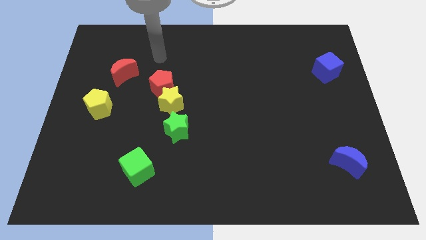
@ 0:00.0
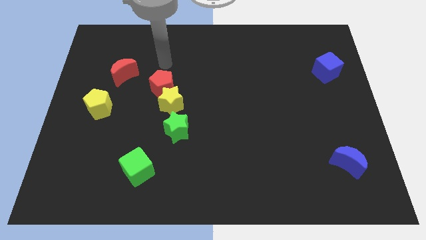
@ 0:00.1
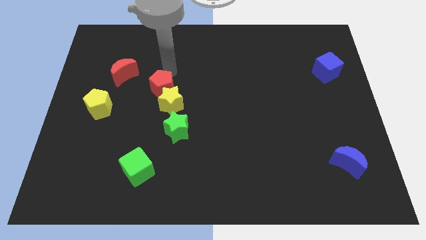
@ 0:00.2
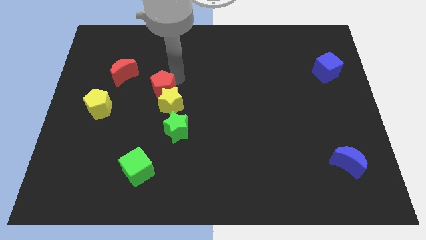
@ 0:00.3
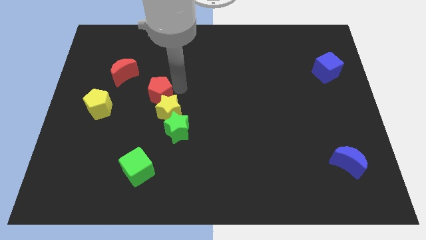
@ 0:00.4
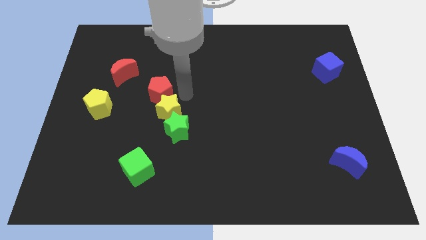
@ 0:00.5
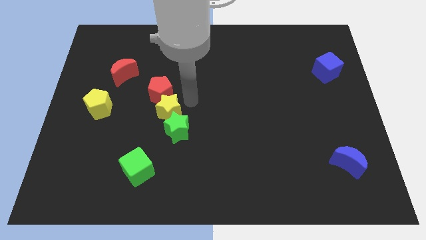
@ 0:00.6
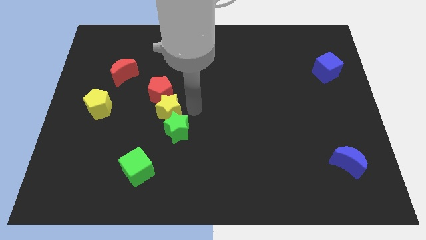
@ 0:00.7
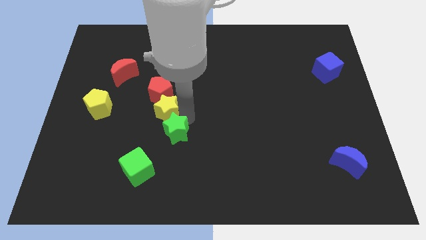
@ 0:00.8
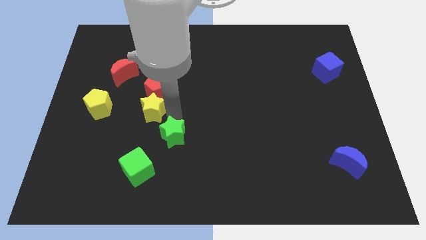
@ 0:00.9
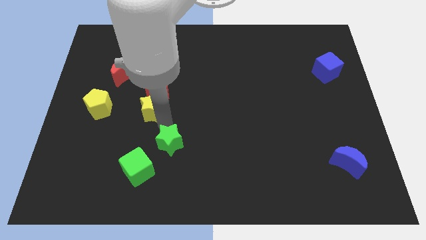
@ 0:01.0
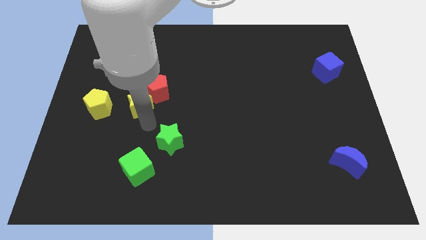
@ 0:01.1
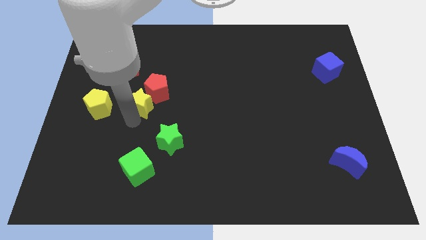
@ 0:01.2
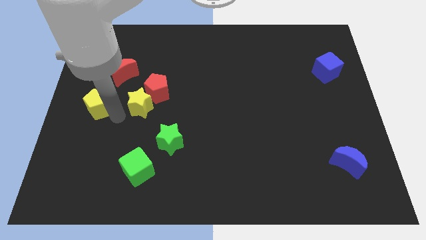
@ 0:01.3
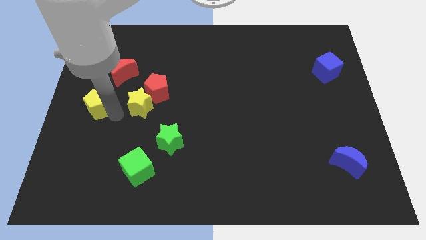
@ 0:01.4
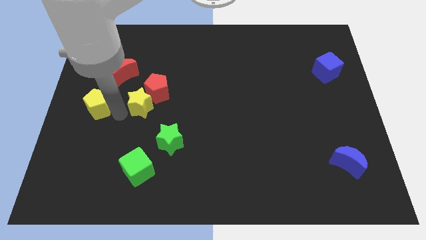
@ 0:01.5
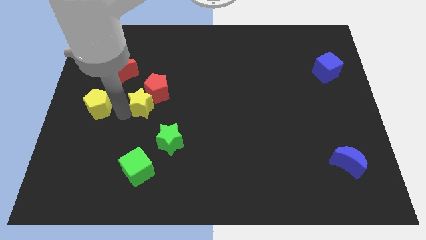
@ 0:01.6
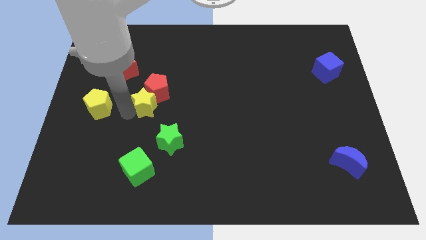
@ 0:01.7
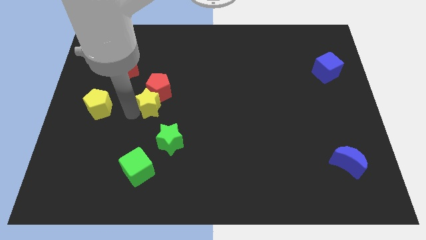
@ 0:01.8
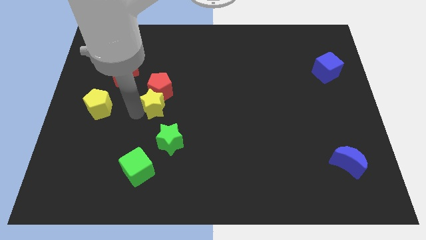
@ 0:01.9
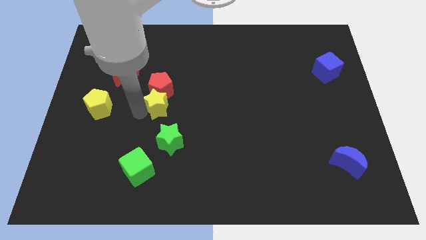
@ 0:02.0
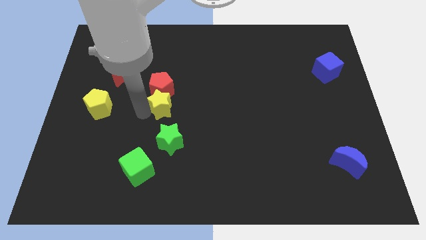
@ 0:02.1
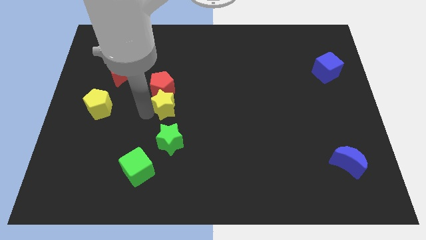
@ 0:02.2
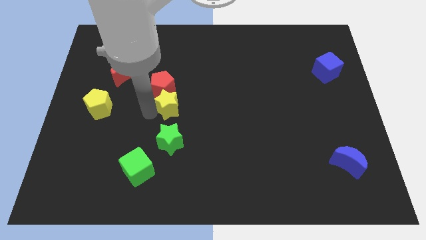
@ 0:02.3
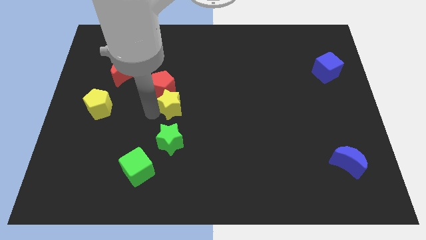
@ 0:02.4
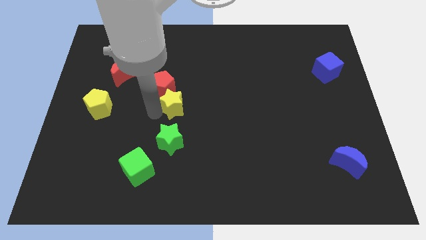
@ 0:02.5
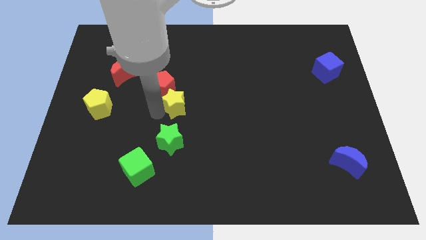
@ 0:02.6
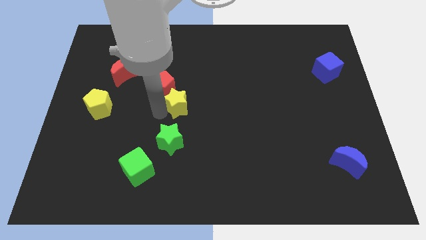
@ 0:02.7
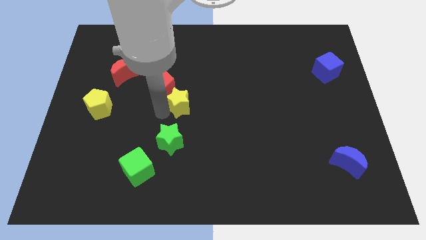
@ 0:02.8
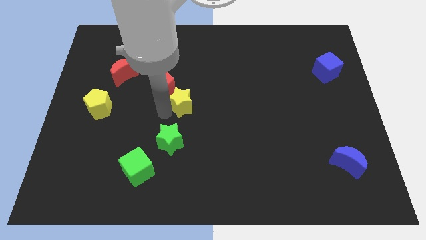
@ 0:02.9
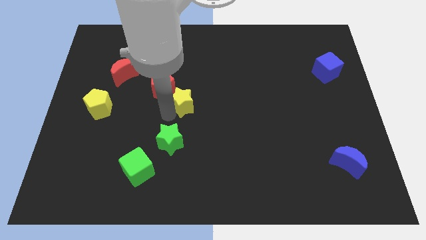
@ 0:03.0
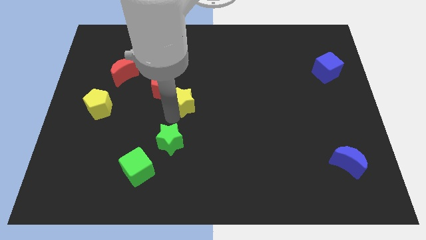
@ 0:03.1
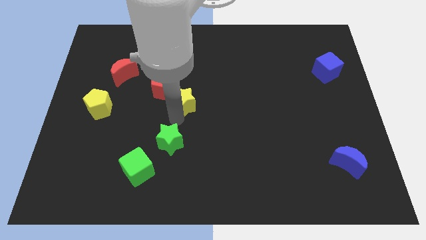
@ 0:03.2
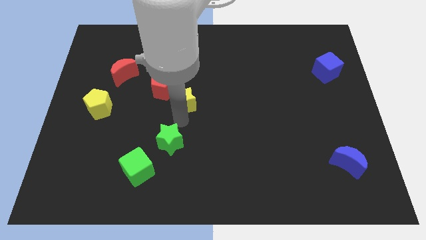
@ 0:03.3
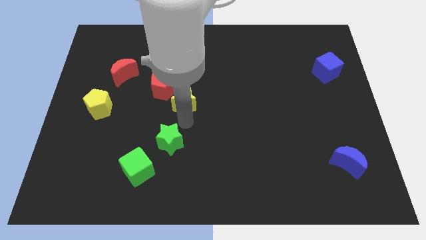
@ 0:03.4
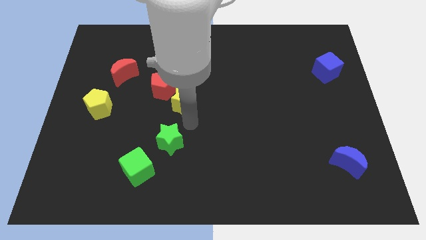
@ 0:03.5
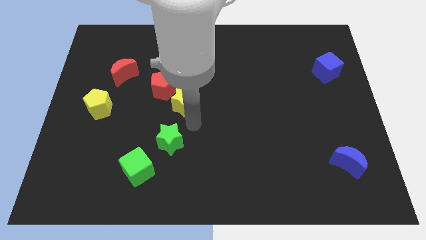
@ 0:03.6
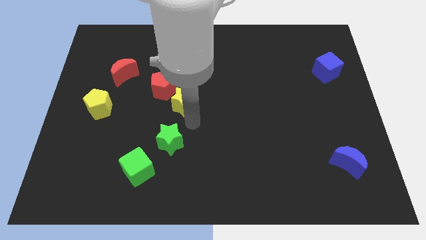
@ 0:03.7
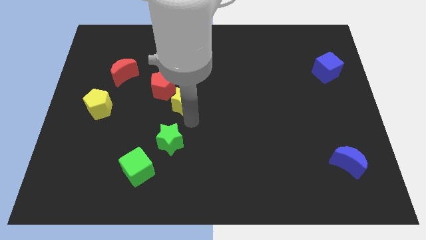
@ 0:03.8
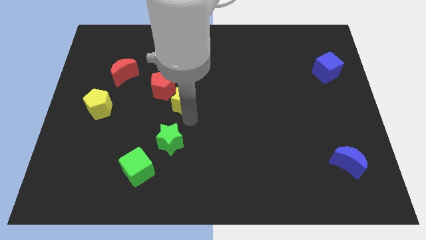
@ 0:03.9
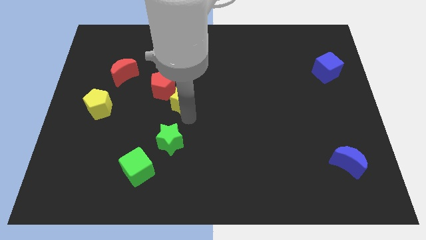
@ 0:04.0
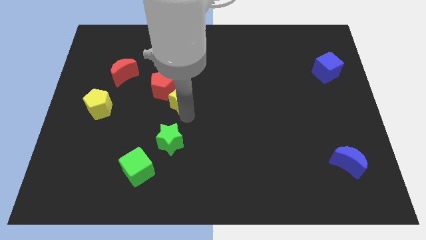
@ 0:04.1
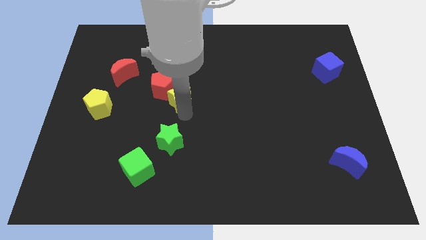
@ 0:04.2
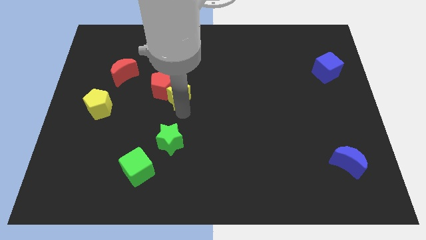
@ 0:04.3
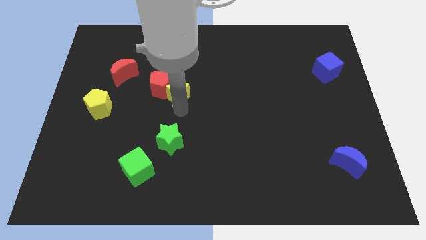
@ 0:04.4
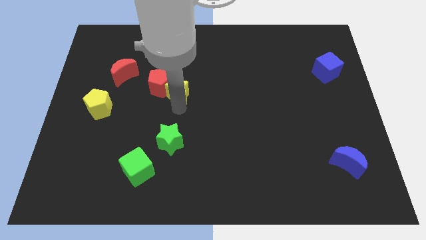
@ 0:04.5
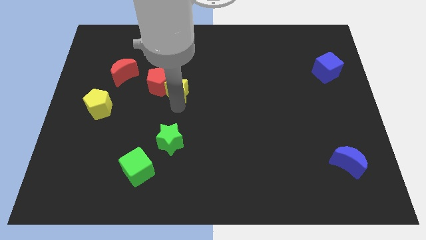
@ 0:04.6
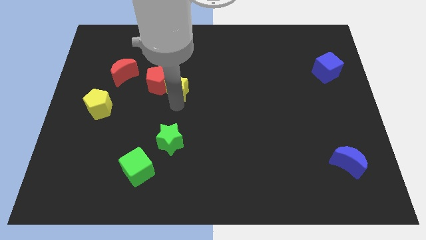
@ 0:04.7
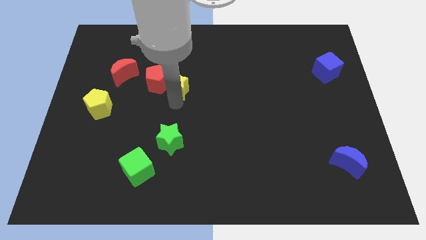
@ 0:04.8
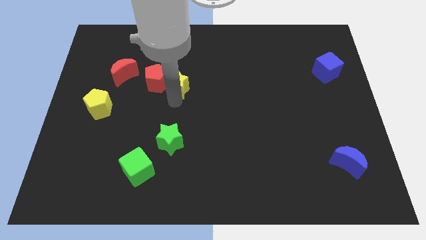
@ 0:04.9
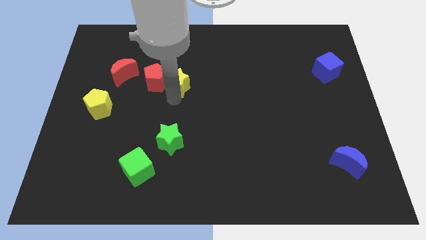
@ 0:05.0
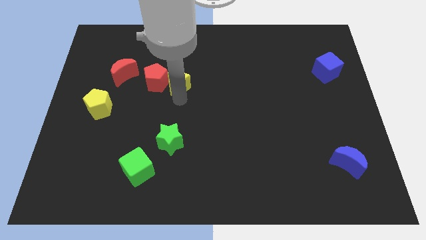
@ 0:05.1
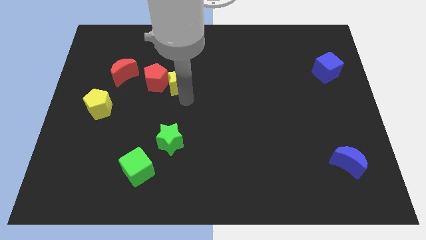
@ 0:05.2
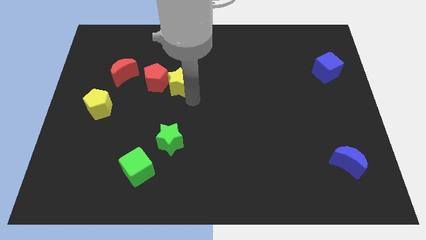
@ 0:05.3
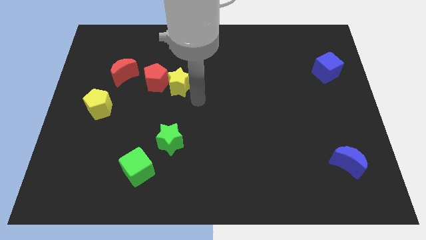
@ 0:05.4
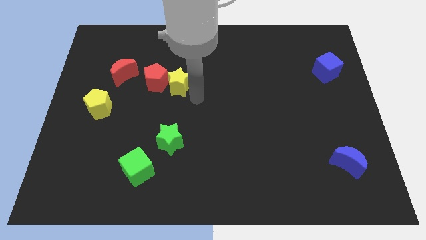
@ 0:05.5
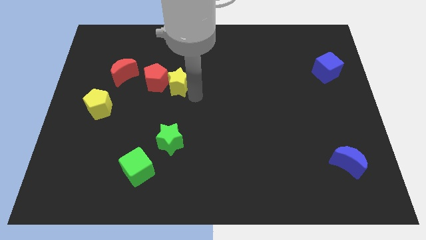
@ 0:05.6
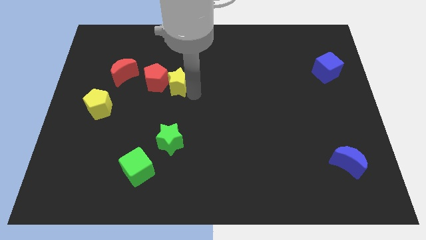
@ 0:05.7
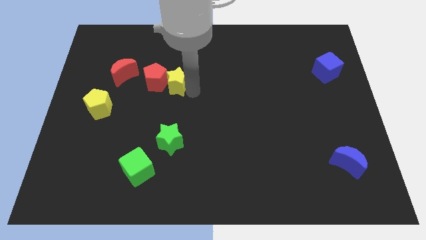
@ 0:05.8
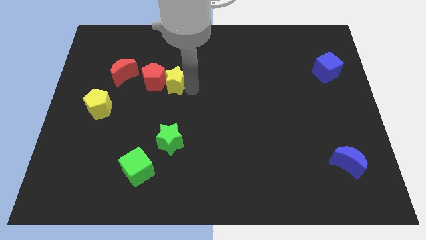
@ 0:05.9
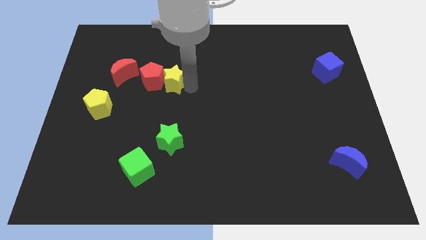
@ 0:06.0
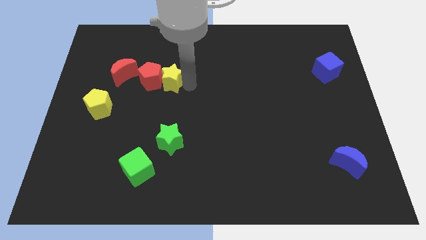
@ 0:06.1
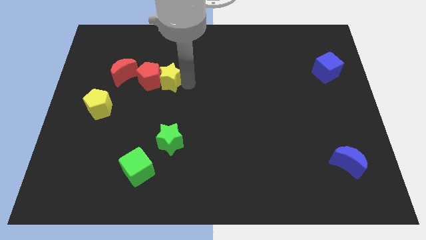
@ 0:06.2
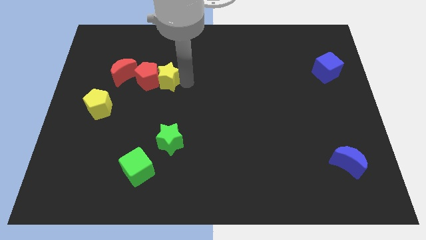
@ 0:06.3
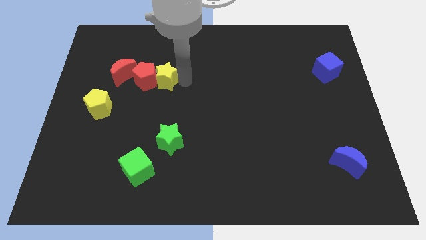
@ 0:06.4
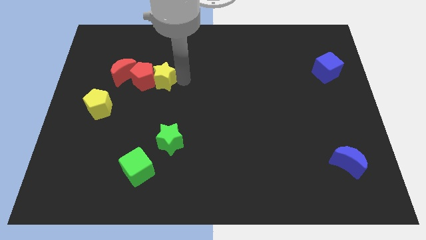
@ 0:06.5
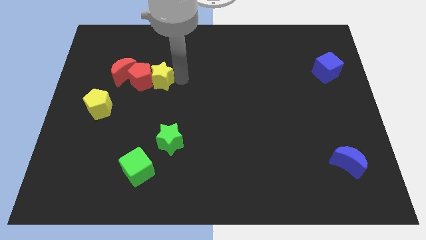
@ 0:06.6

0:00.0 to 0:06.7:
push the yellow star a little upwards and then left

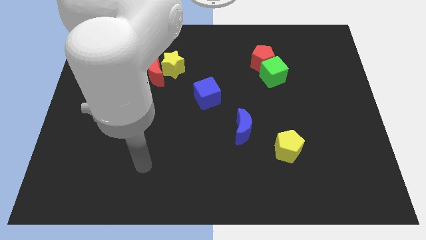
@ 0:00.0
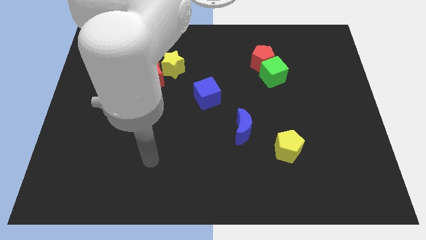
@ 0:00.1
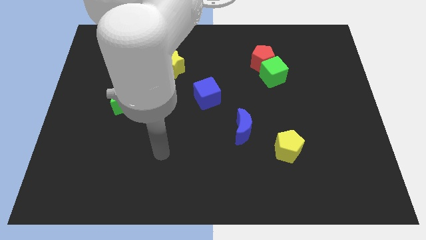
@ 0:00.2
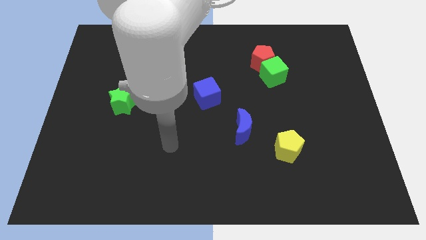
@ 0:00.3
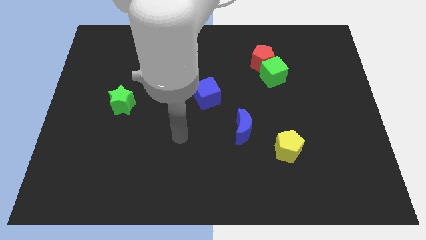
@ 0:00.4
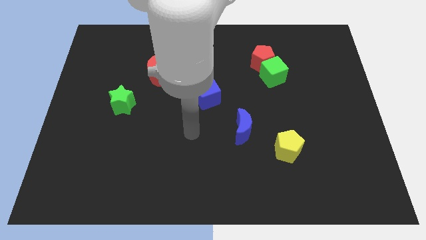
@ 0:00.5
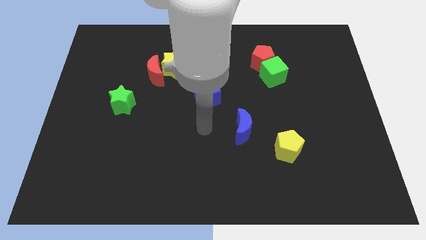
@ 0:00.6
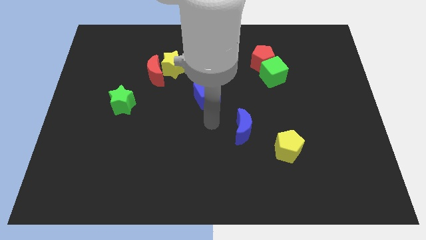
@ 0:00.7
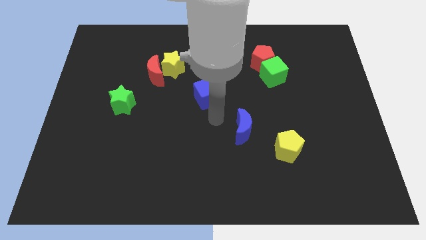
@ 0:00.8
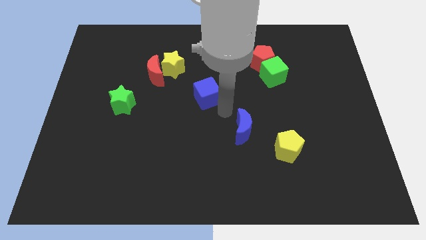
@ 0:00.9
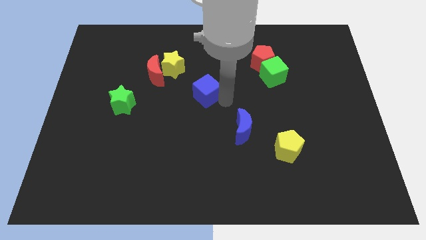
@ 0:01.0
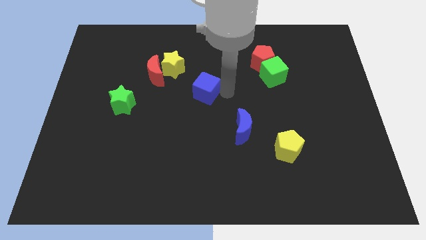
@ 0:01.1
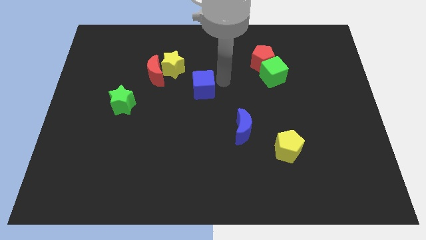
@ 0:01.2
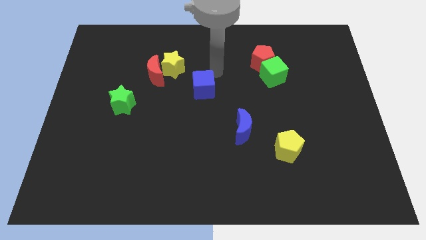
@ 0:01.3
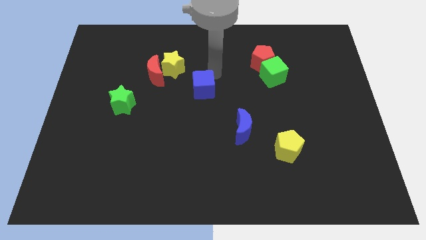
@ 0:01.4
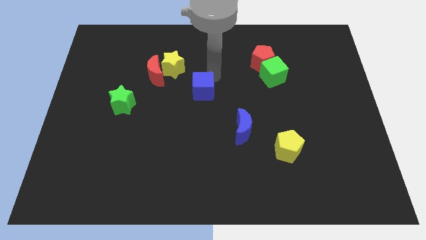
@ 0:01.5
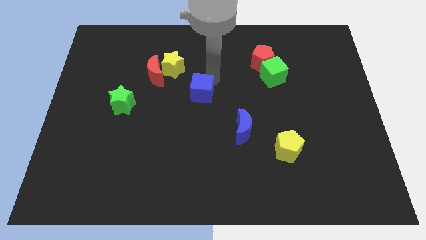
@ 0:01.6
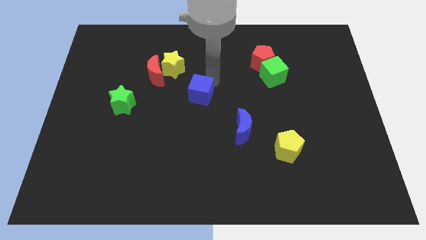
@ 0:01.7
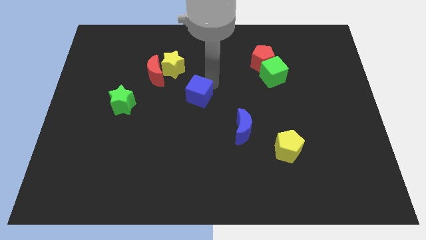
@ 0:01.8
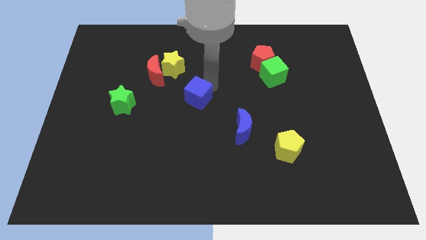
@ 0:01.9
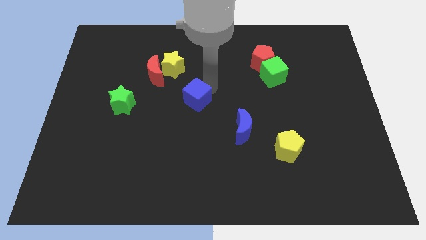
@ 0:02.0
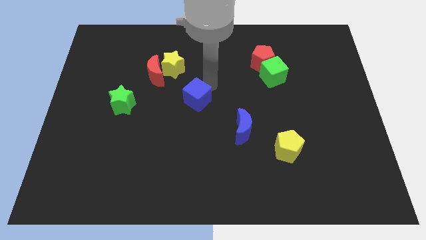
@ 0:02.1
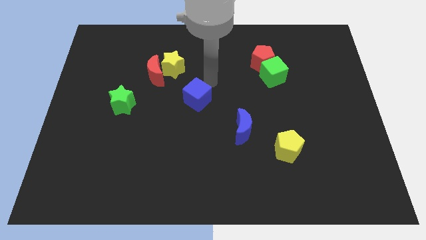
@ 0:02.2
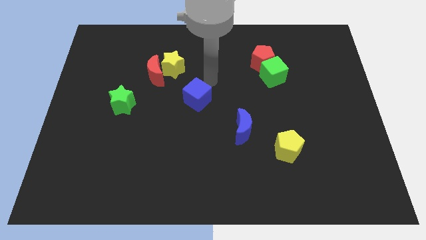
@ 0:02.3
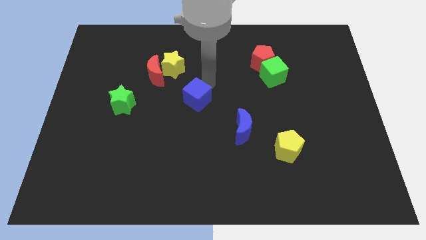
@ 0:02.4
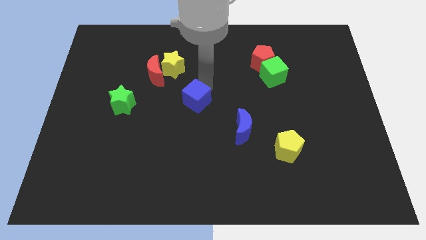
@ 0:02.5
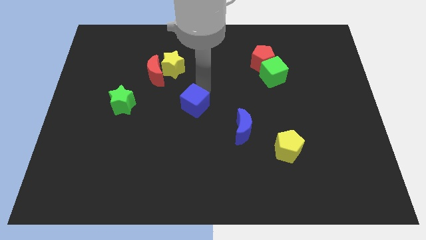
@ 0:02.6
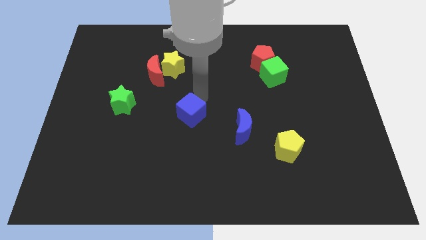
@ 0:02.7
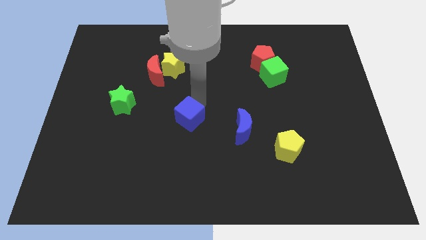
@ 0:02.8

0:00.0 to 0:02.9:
push the blue cube a bit down and left
